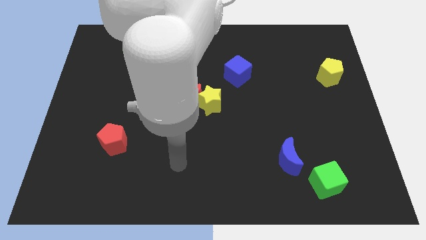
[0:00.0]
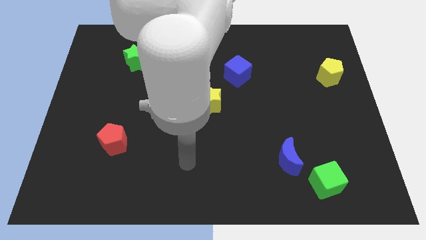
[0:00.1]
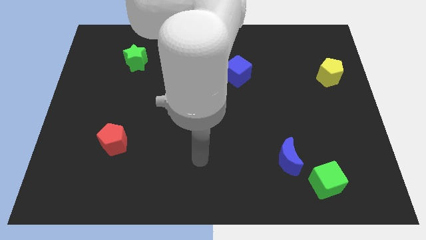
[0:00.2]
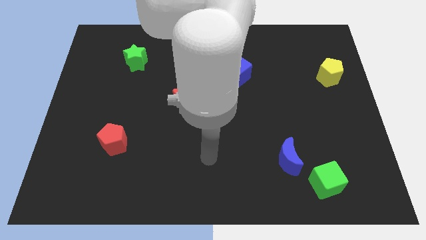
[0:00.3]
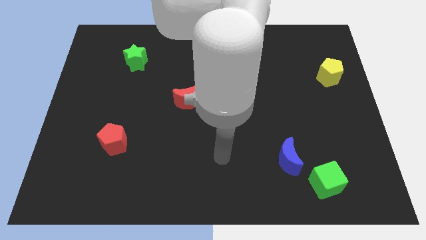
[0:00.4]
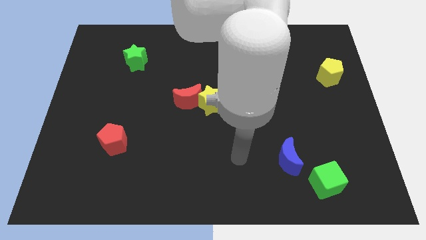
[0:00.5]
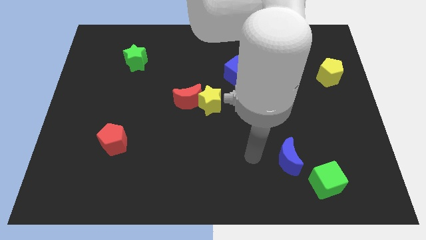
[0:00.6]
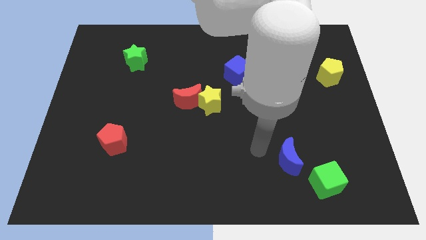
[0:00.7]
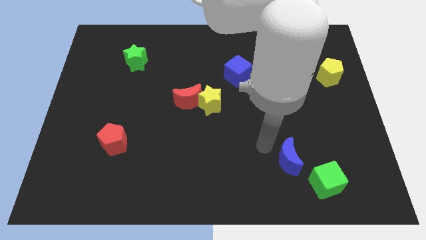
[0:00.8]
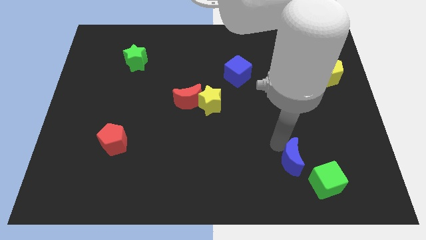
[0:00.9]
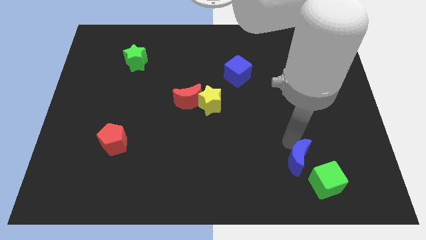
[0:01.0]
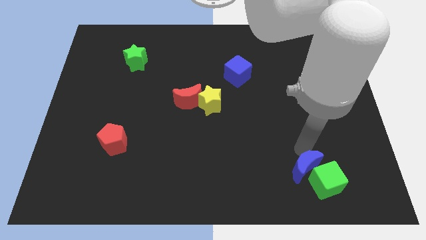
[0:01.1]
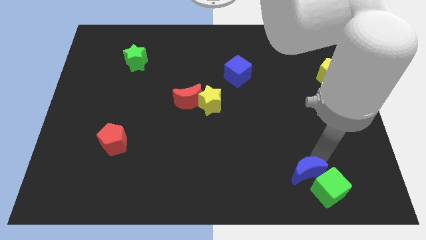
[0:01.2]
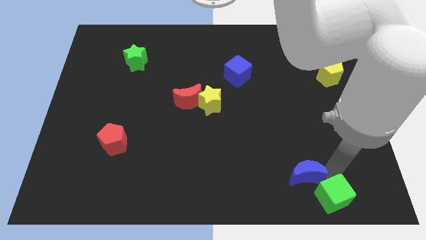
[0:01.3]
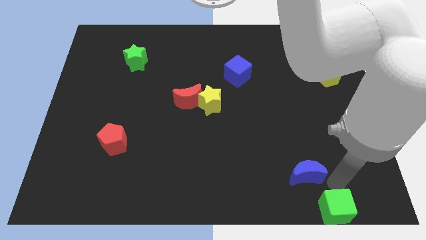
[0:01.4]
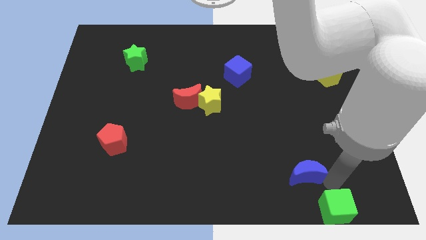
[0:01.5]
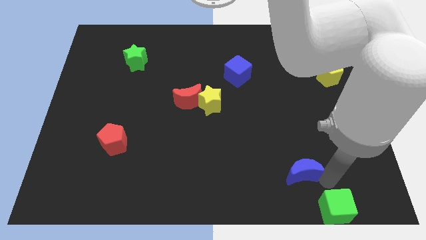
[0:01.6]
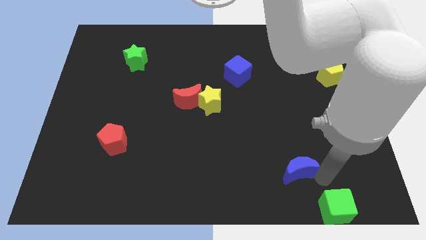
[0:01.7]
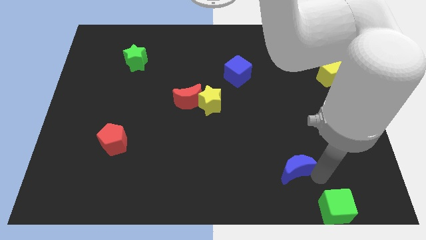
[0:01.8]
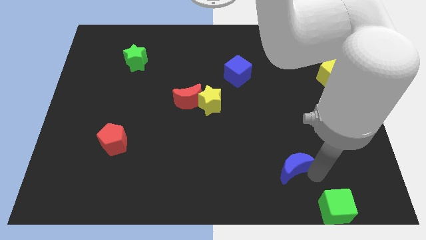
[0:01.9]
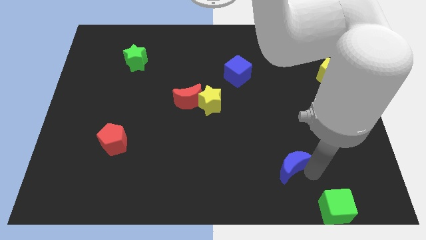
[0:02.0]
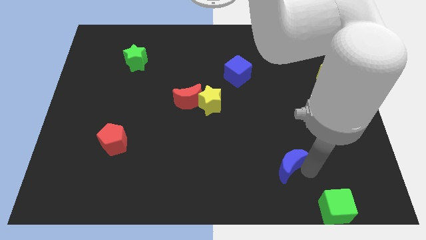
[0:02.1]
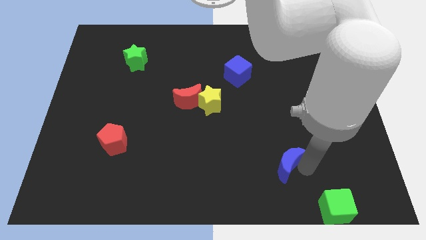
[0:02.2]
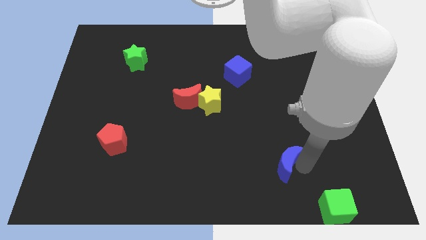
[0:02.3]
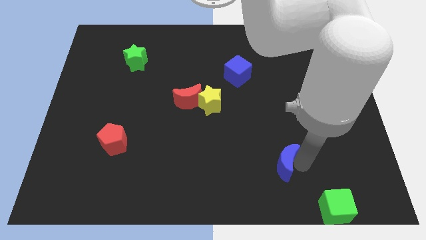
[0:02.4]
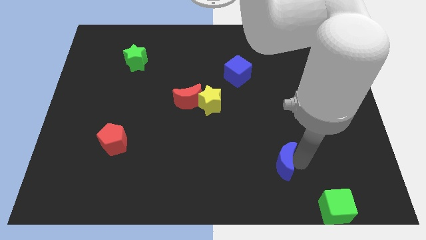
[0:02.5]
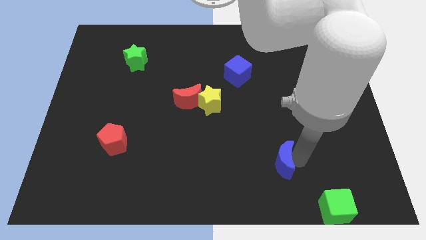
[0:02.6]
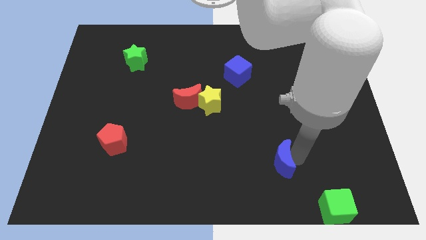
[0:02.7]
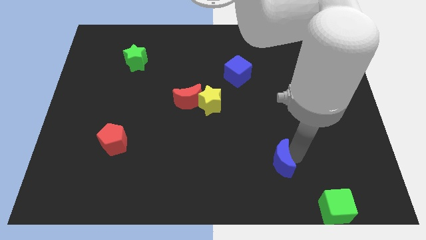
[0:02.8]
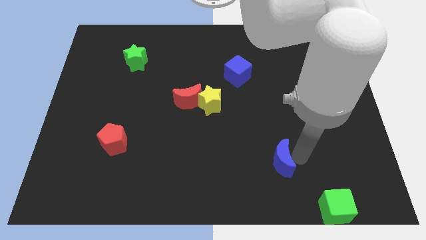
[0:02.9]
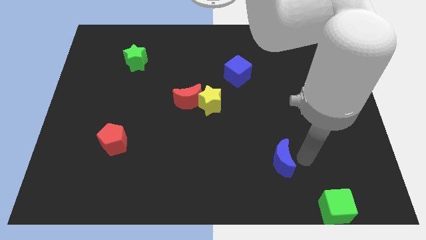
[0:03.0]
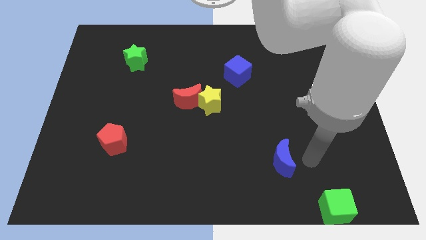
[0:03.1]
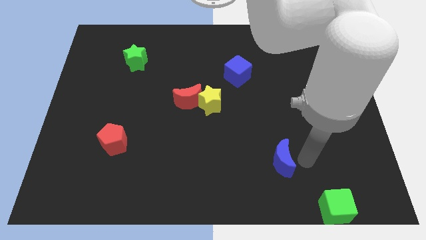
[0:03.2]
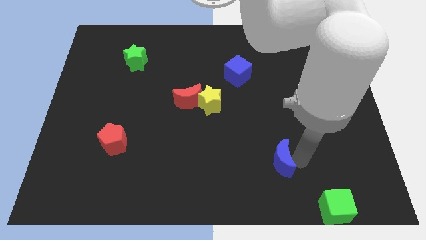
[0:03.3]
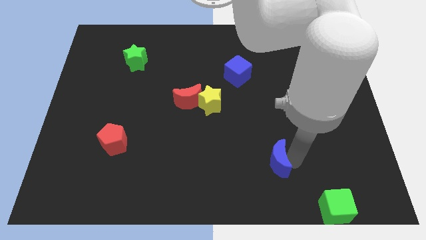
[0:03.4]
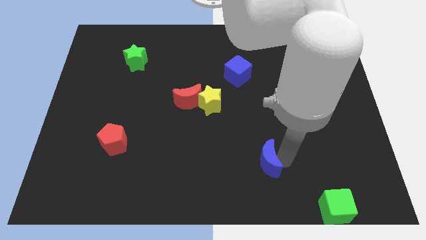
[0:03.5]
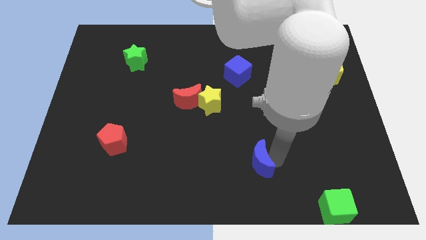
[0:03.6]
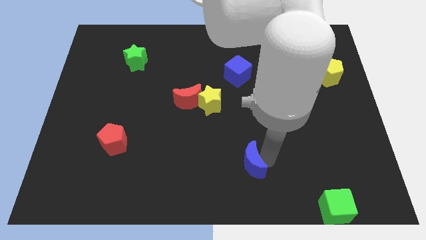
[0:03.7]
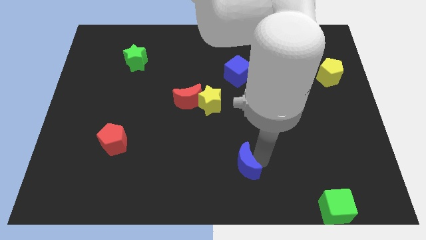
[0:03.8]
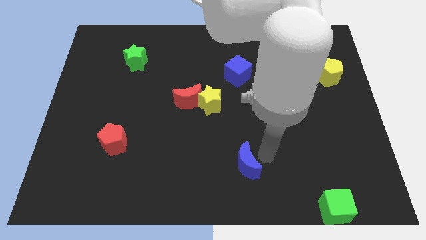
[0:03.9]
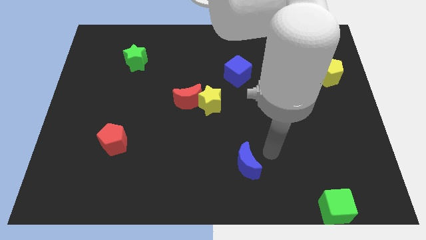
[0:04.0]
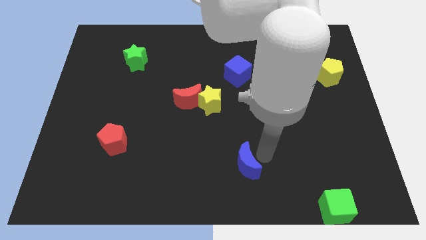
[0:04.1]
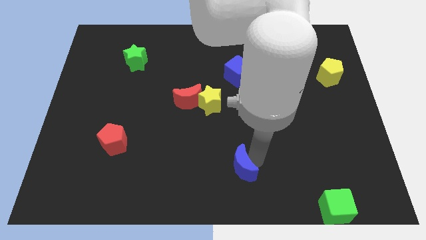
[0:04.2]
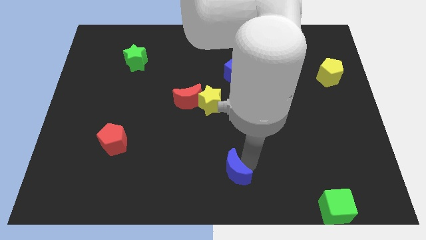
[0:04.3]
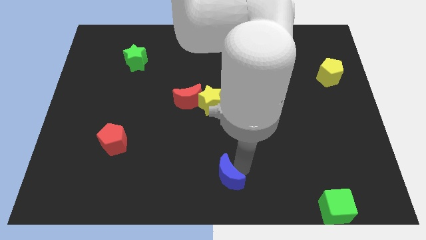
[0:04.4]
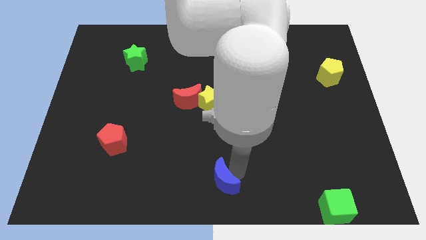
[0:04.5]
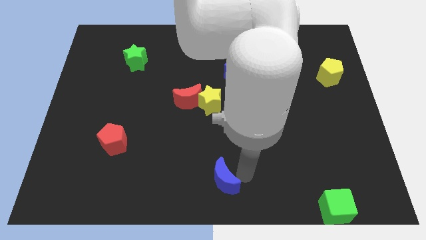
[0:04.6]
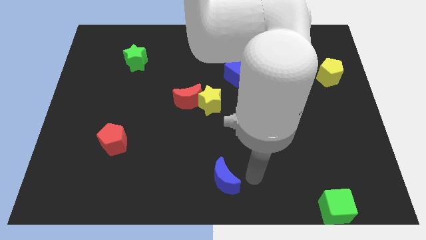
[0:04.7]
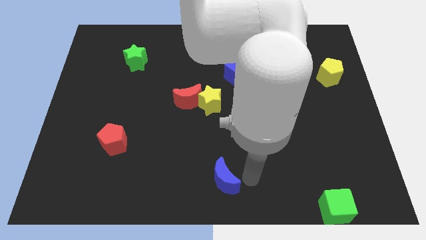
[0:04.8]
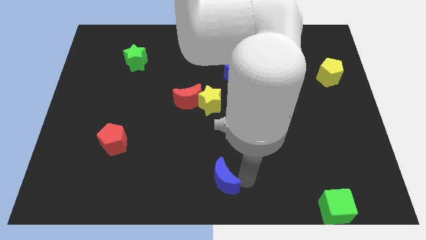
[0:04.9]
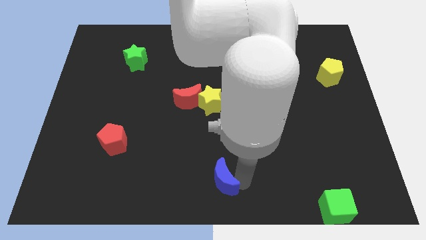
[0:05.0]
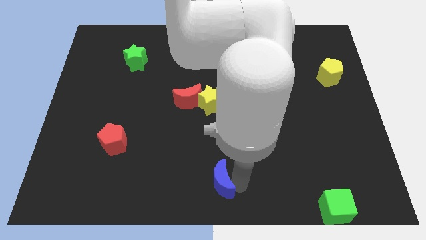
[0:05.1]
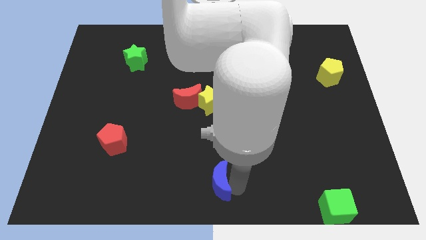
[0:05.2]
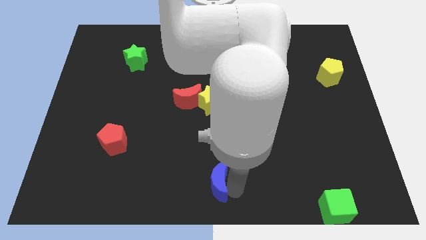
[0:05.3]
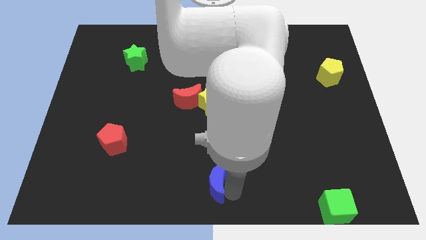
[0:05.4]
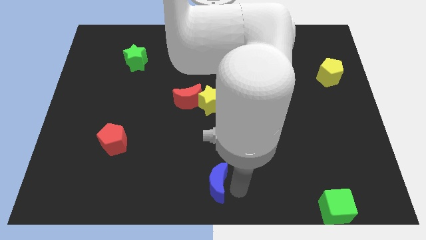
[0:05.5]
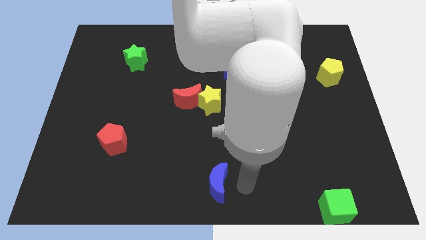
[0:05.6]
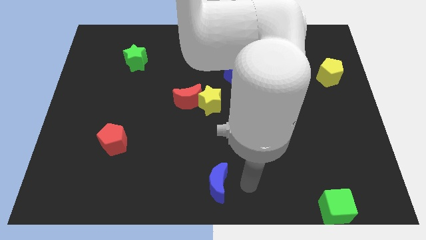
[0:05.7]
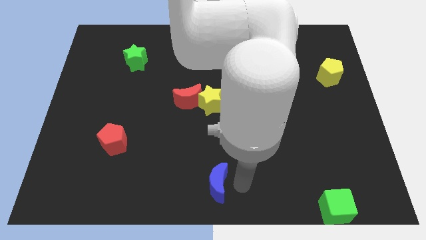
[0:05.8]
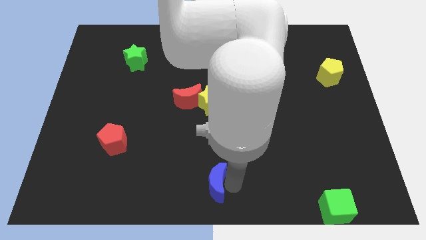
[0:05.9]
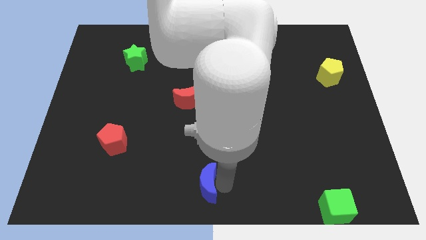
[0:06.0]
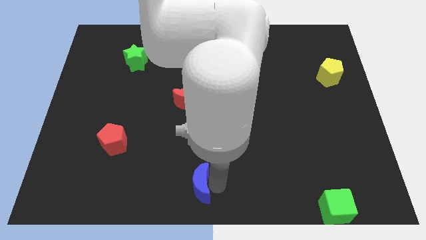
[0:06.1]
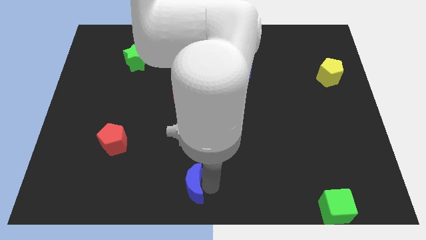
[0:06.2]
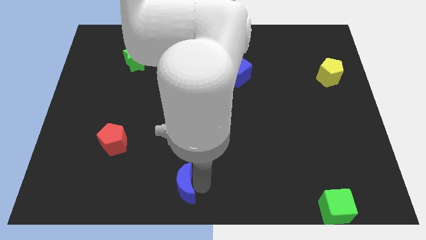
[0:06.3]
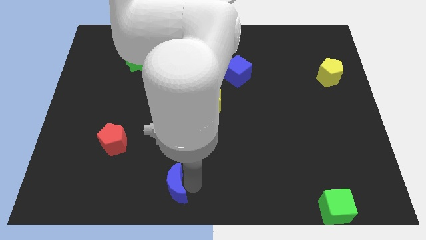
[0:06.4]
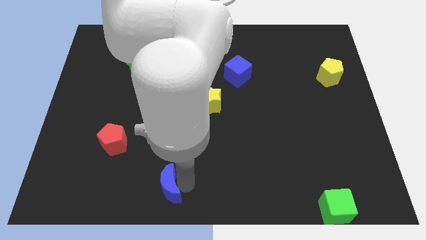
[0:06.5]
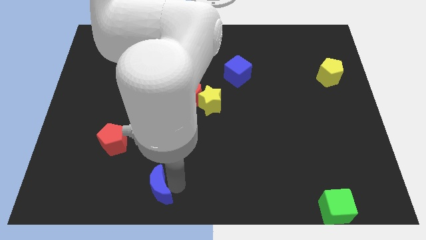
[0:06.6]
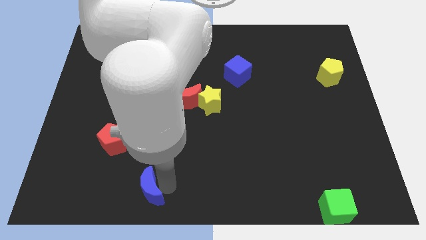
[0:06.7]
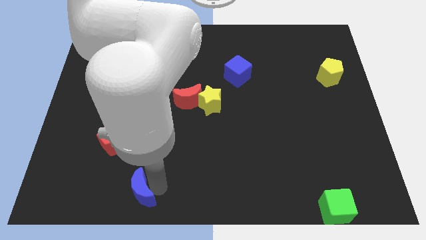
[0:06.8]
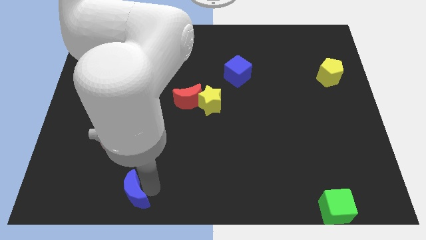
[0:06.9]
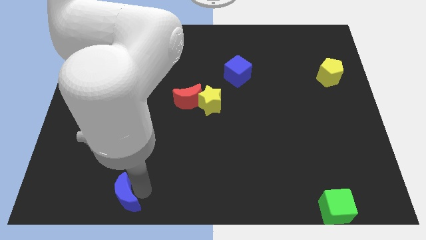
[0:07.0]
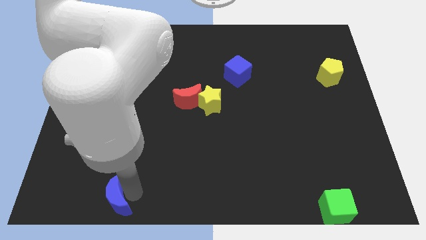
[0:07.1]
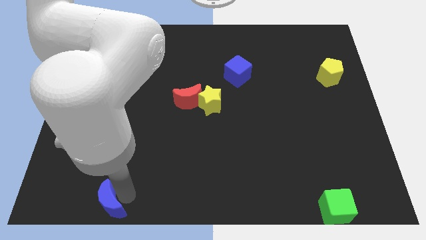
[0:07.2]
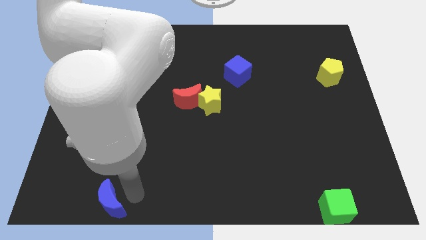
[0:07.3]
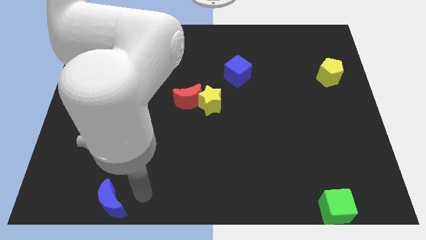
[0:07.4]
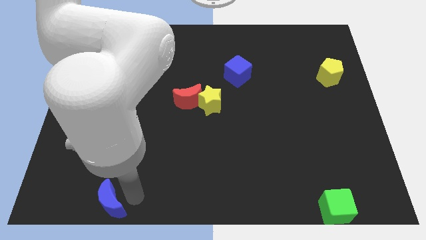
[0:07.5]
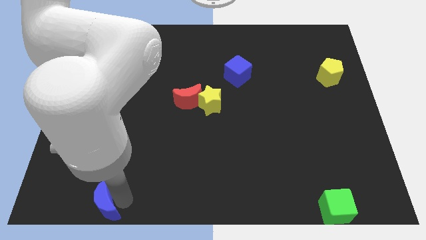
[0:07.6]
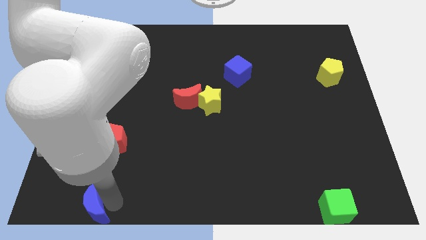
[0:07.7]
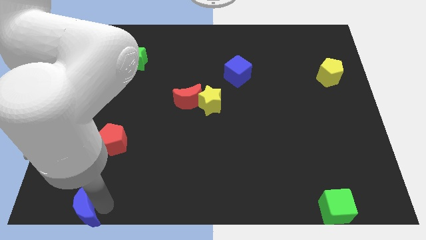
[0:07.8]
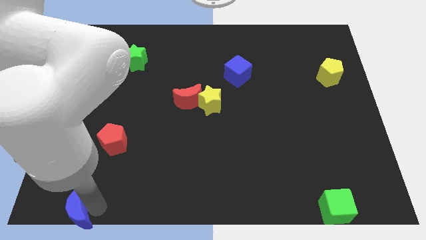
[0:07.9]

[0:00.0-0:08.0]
put the blue moon to the bottom left corner
